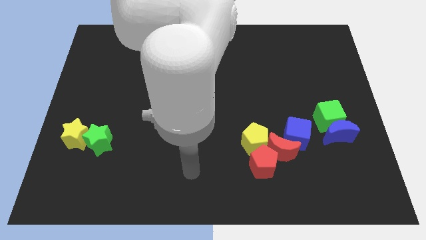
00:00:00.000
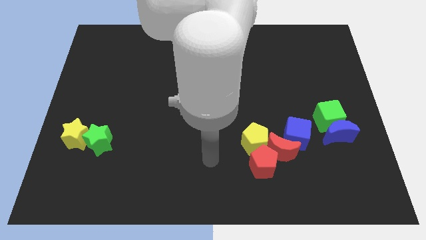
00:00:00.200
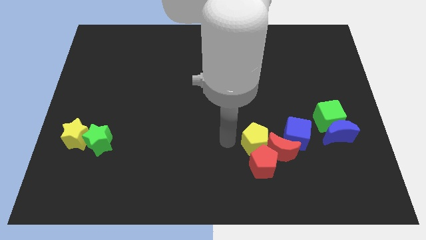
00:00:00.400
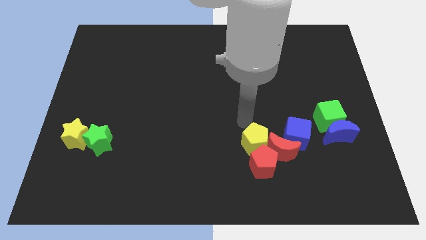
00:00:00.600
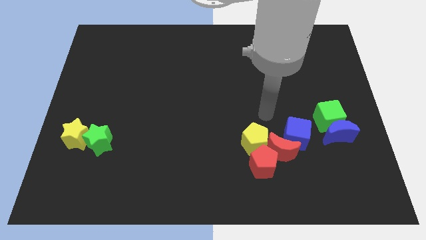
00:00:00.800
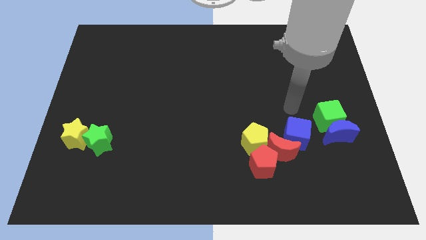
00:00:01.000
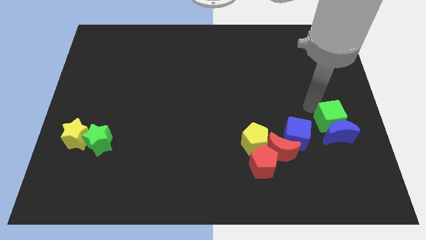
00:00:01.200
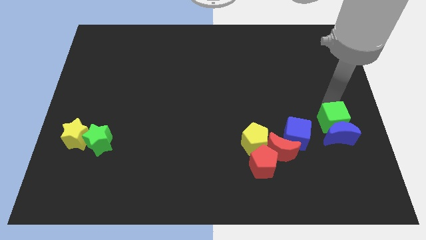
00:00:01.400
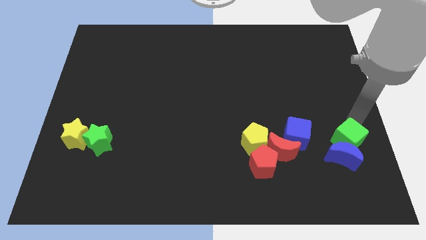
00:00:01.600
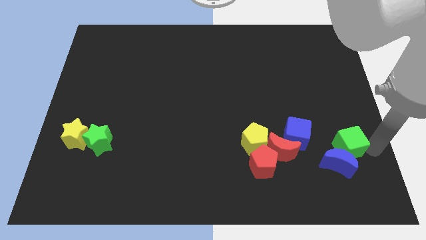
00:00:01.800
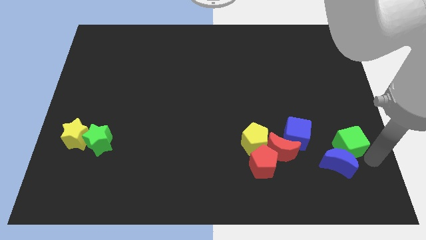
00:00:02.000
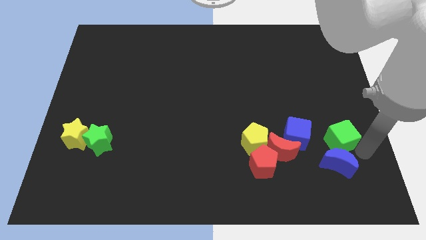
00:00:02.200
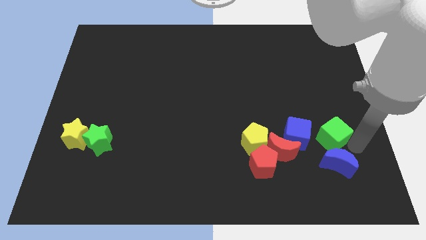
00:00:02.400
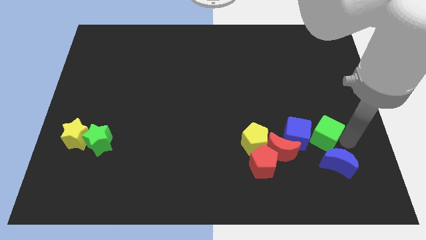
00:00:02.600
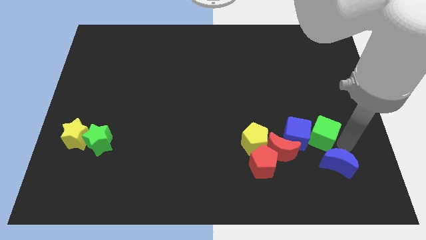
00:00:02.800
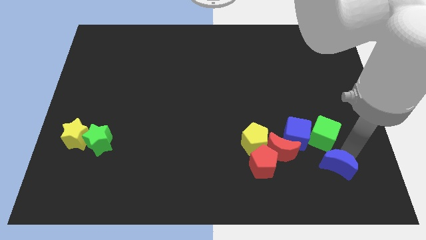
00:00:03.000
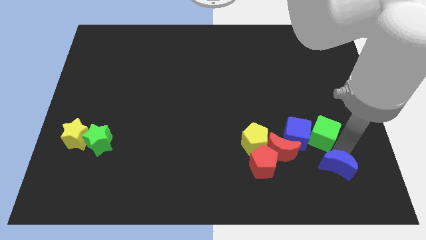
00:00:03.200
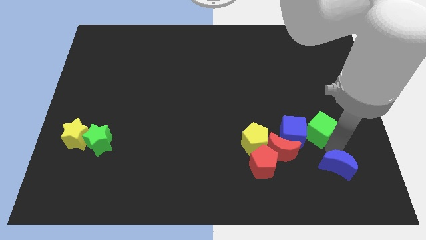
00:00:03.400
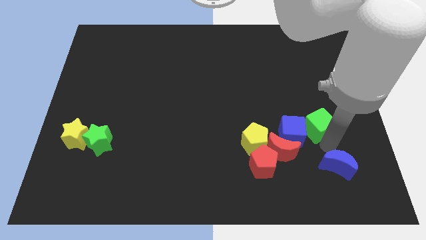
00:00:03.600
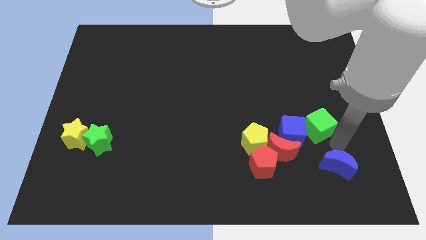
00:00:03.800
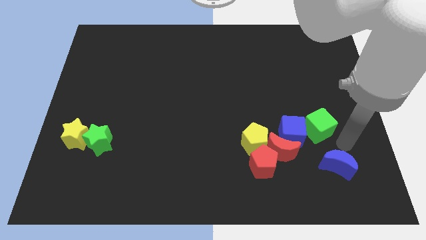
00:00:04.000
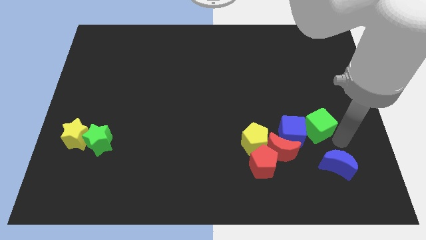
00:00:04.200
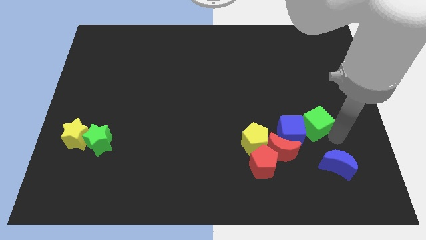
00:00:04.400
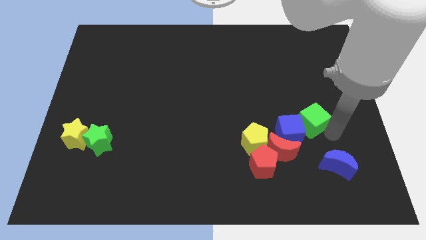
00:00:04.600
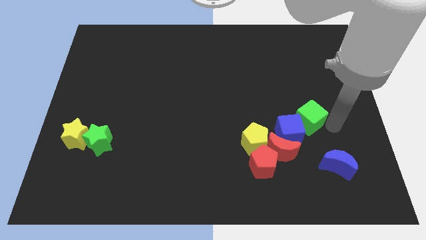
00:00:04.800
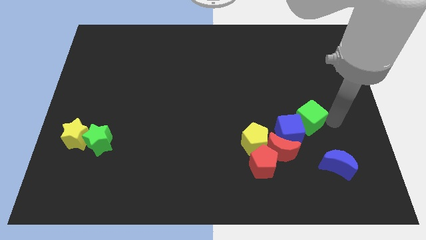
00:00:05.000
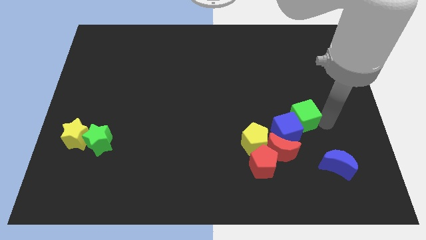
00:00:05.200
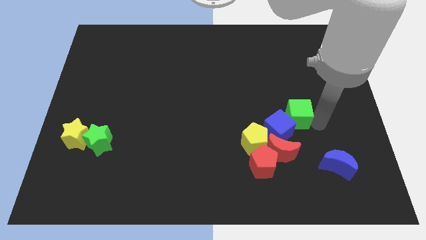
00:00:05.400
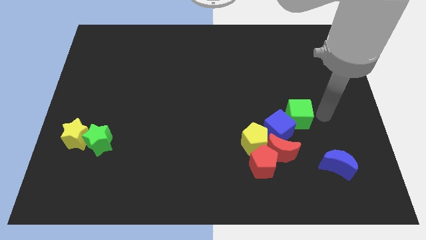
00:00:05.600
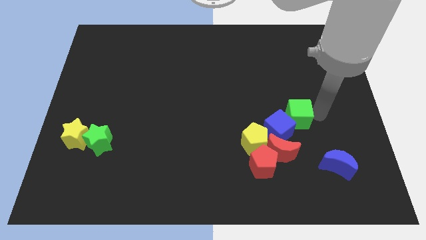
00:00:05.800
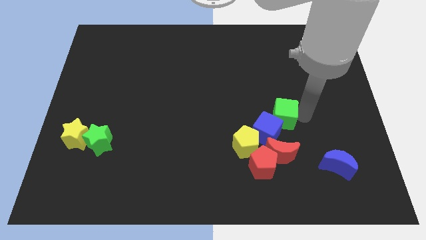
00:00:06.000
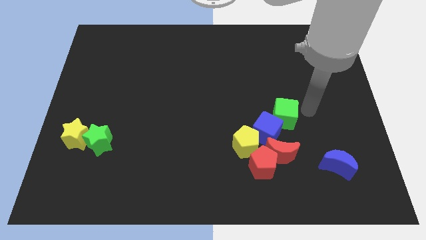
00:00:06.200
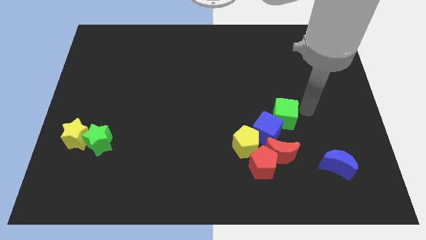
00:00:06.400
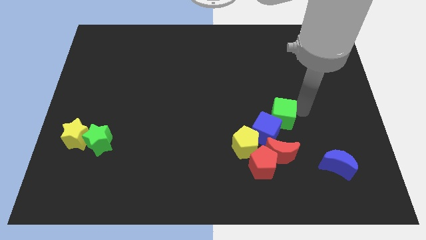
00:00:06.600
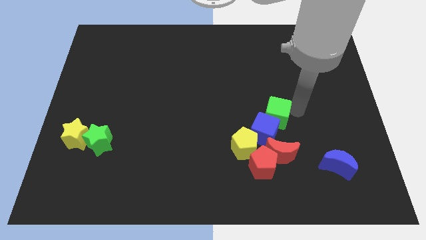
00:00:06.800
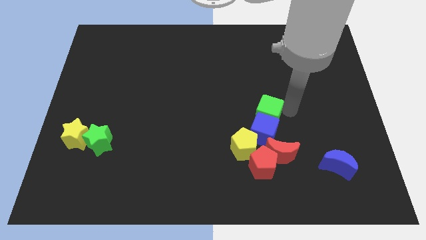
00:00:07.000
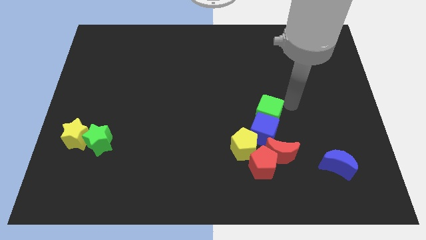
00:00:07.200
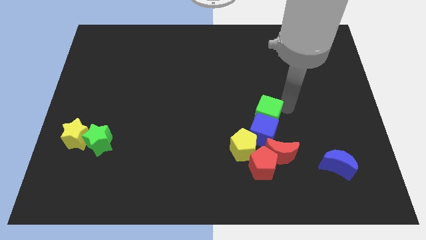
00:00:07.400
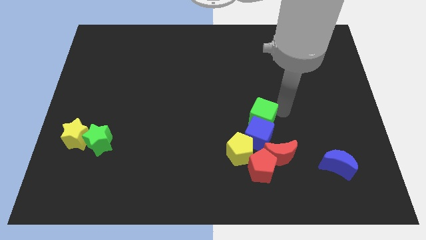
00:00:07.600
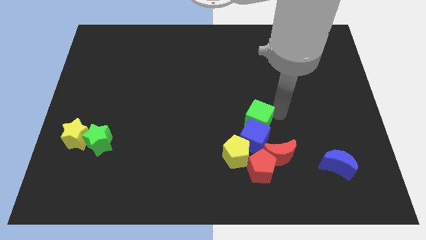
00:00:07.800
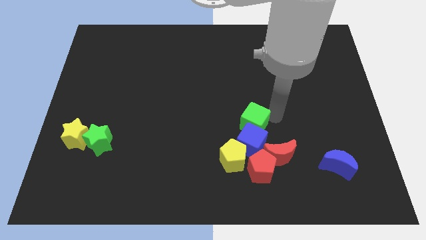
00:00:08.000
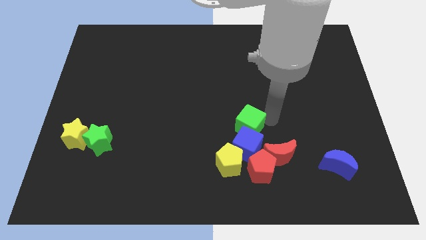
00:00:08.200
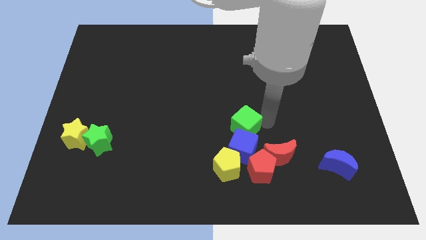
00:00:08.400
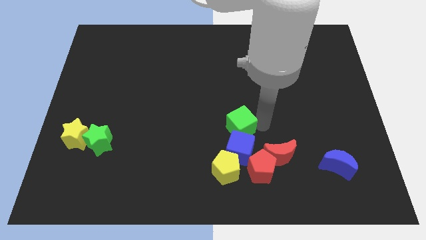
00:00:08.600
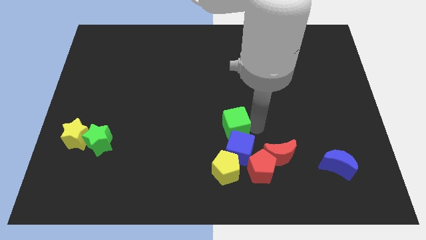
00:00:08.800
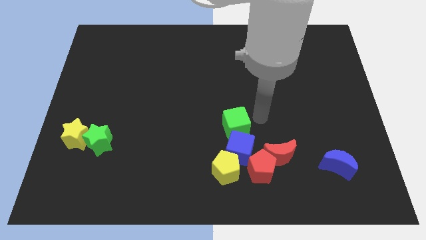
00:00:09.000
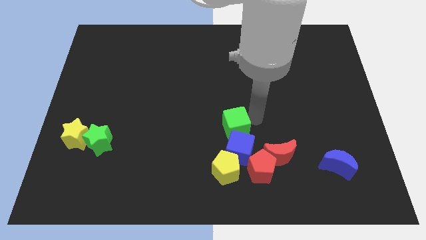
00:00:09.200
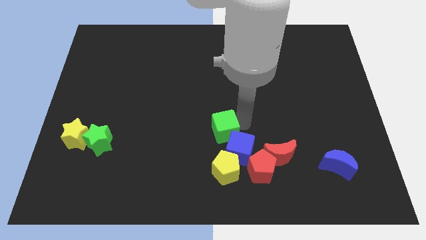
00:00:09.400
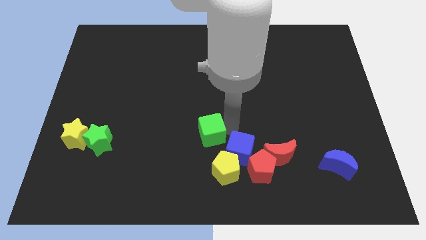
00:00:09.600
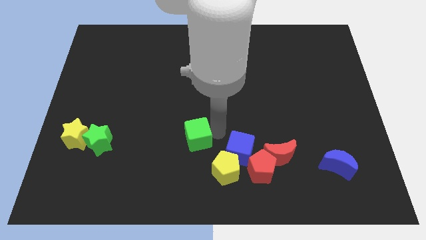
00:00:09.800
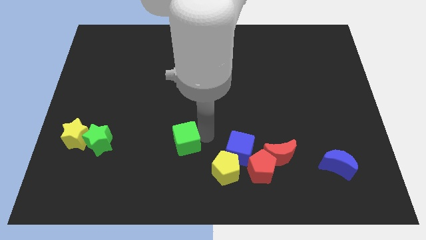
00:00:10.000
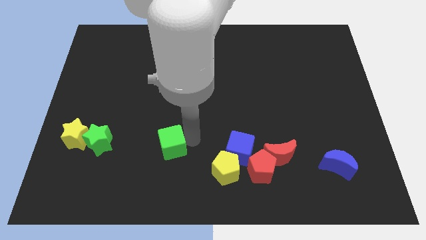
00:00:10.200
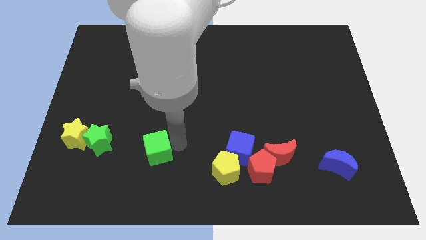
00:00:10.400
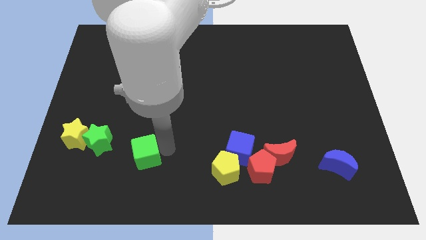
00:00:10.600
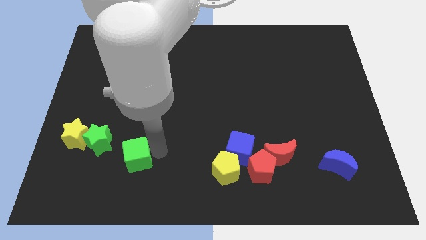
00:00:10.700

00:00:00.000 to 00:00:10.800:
put the green cube to the bottom right of the green star

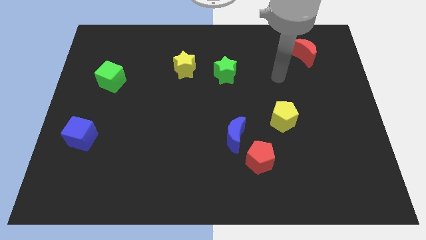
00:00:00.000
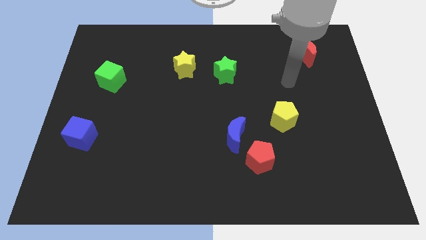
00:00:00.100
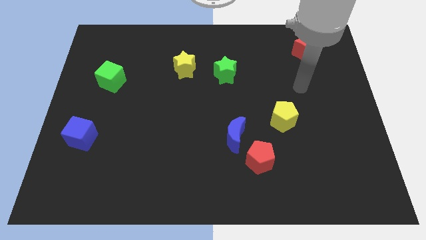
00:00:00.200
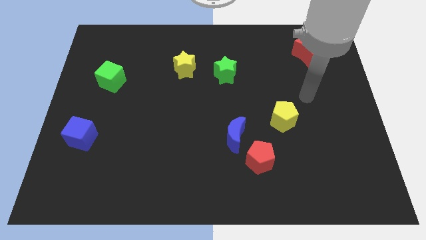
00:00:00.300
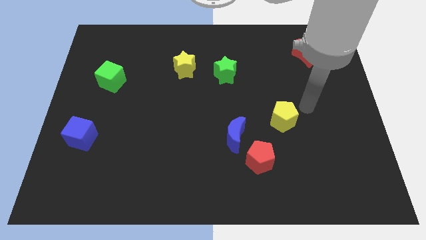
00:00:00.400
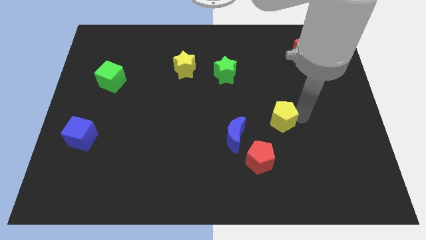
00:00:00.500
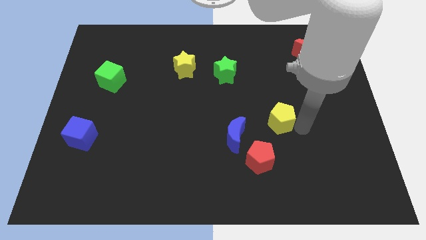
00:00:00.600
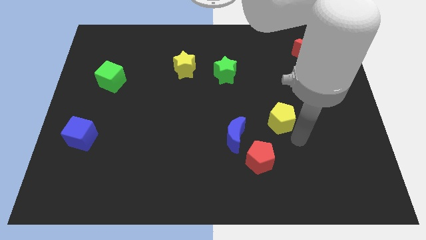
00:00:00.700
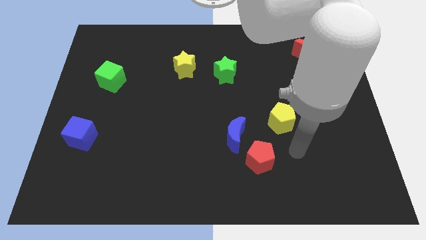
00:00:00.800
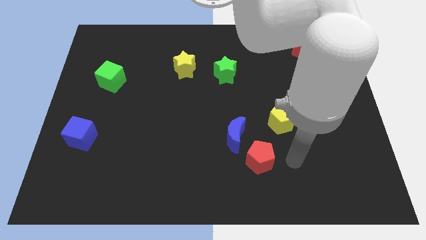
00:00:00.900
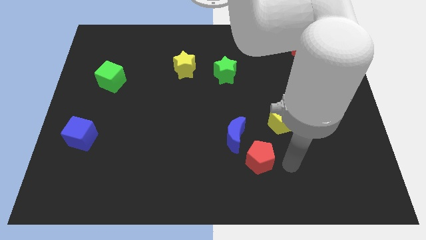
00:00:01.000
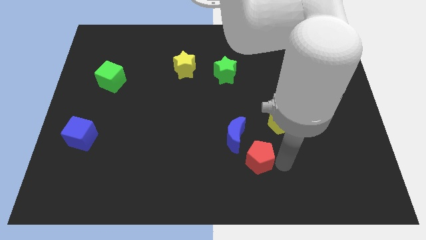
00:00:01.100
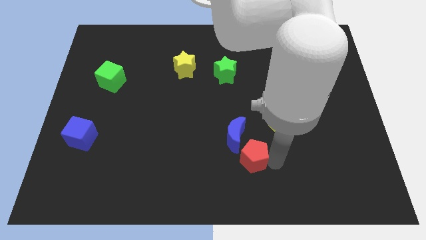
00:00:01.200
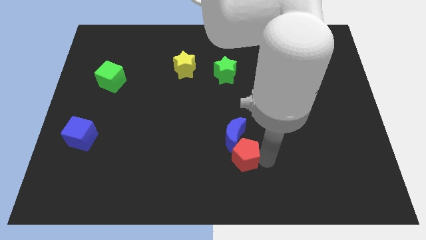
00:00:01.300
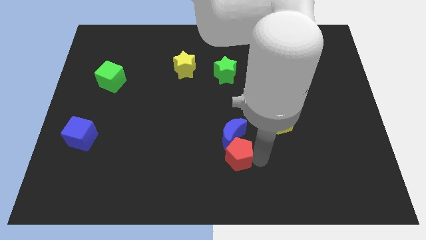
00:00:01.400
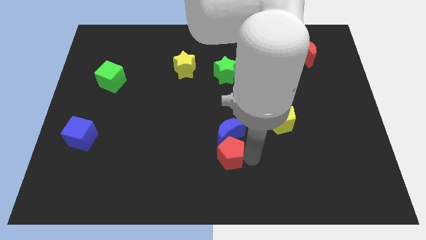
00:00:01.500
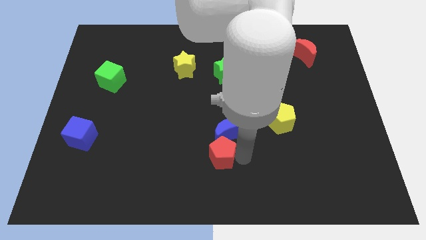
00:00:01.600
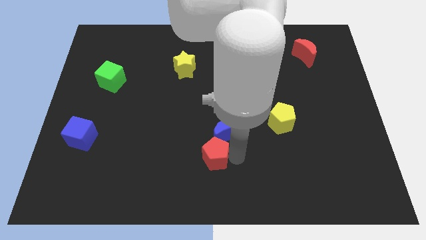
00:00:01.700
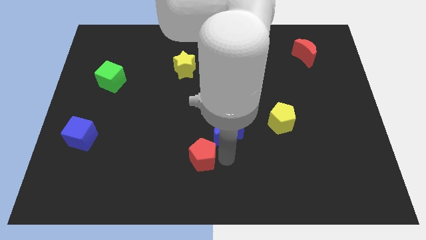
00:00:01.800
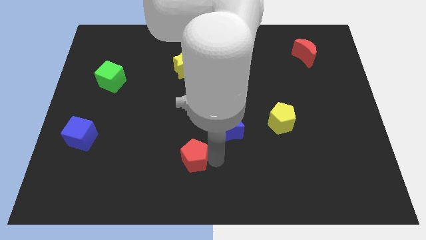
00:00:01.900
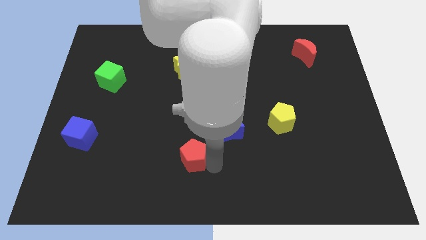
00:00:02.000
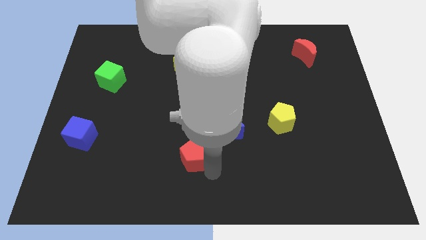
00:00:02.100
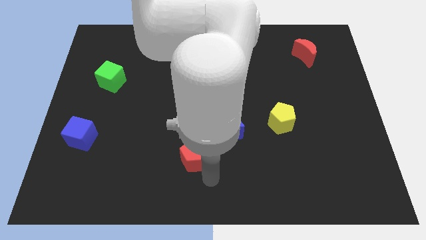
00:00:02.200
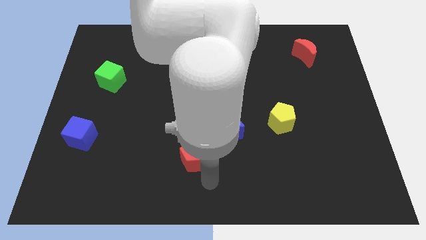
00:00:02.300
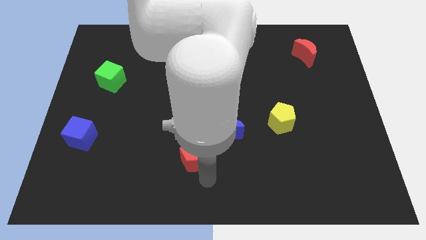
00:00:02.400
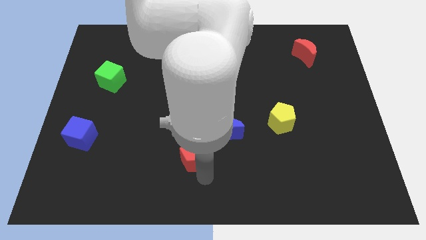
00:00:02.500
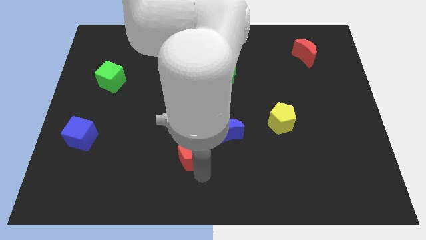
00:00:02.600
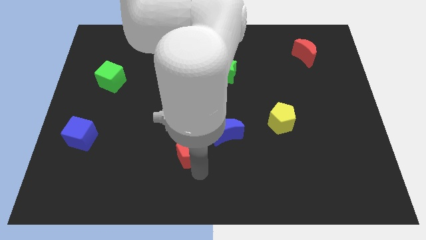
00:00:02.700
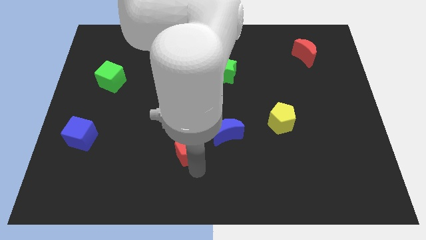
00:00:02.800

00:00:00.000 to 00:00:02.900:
slide the red pentagon left of the blue moon
